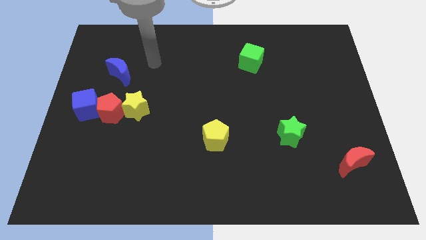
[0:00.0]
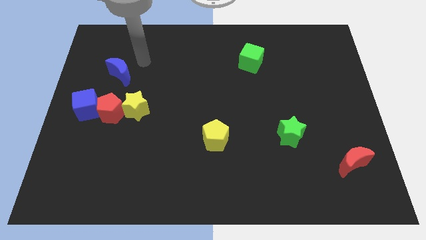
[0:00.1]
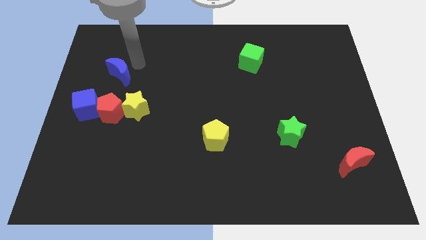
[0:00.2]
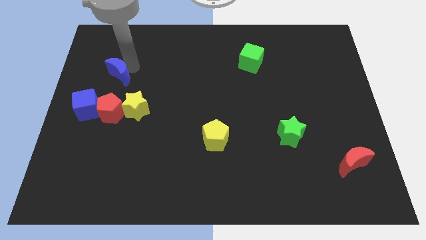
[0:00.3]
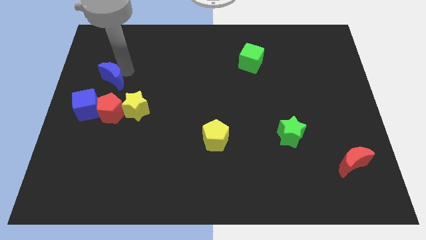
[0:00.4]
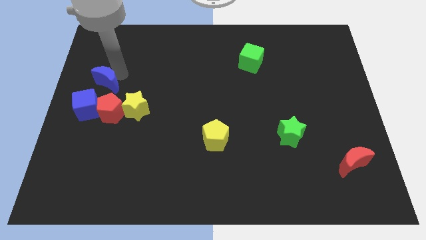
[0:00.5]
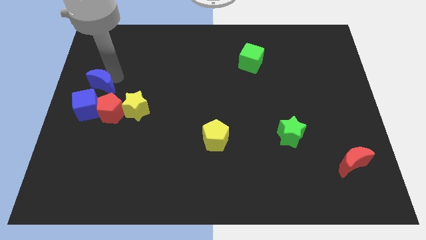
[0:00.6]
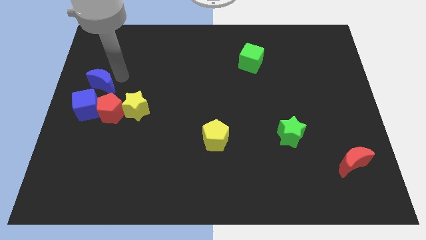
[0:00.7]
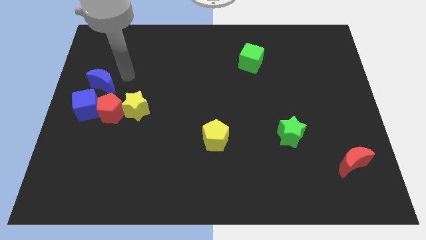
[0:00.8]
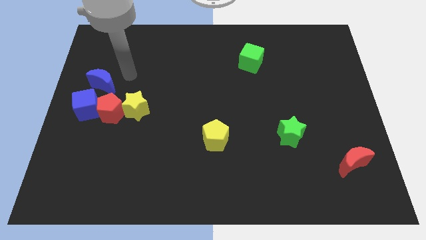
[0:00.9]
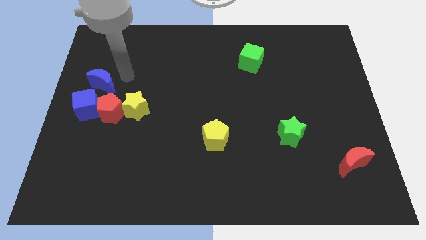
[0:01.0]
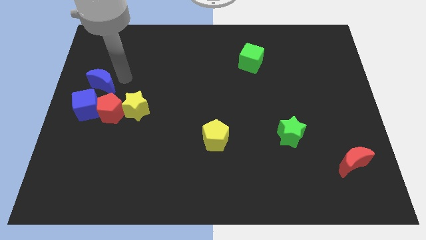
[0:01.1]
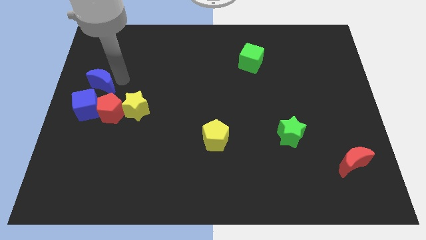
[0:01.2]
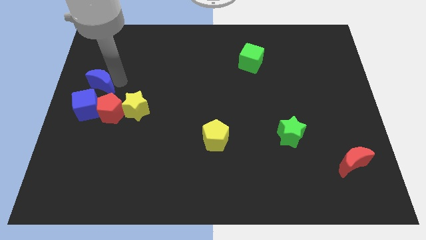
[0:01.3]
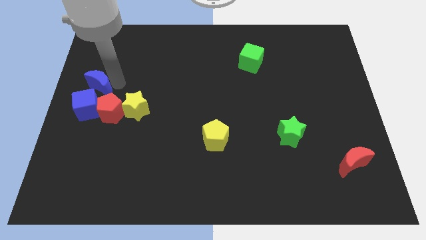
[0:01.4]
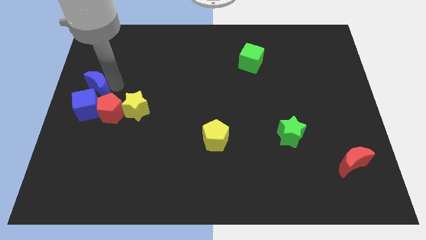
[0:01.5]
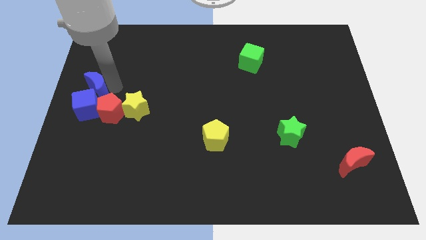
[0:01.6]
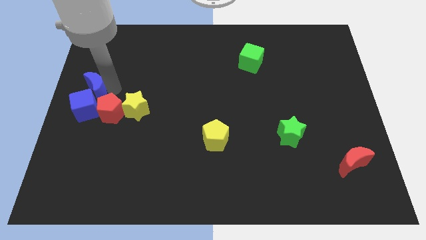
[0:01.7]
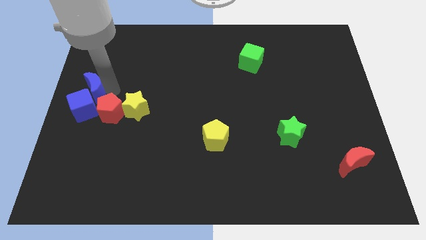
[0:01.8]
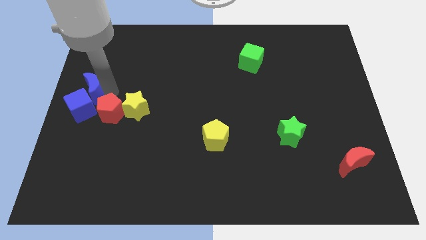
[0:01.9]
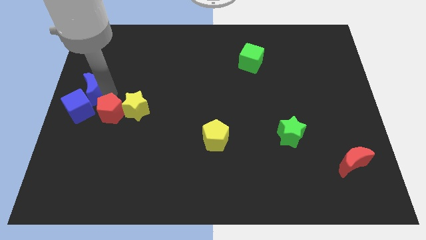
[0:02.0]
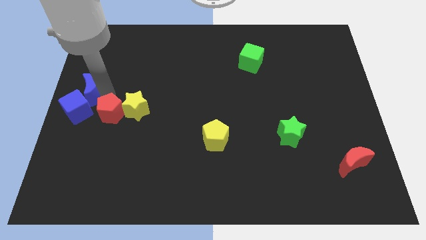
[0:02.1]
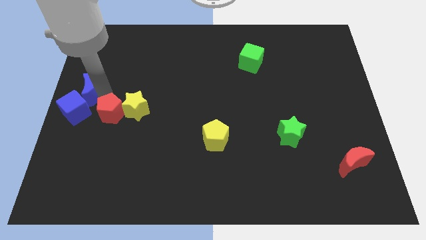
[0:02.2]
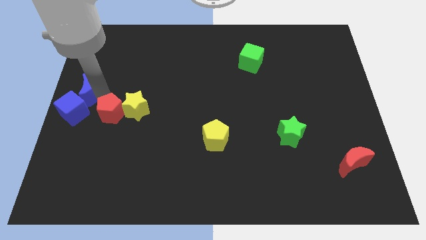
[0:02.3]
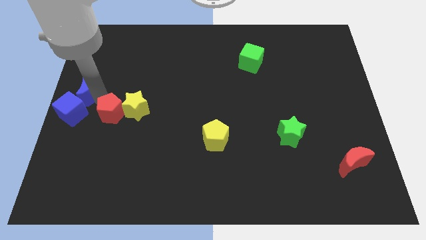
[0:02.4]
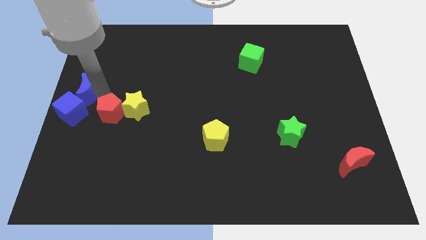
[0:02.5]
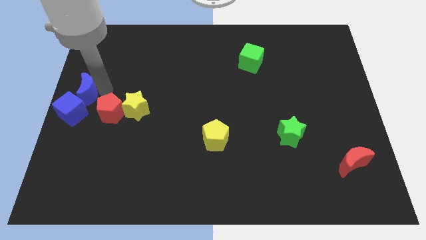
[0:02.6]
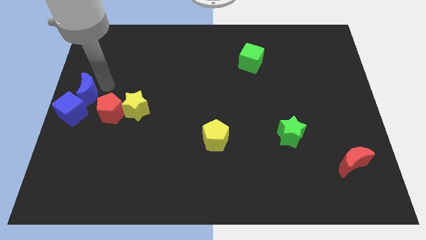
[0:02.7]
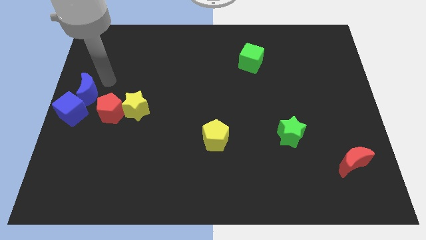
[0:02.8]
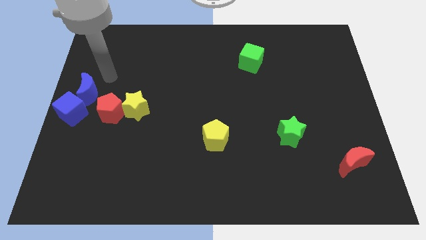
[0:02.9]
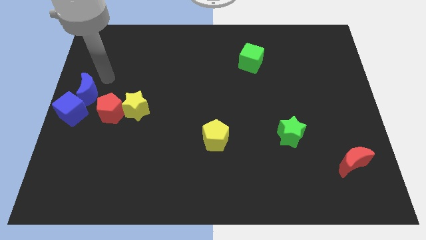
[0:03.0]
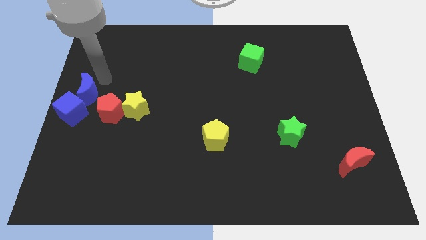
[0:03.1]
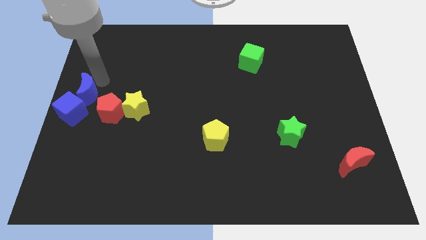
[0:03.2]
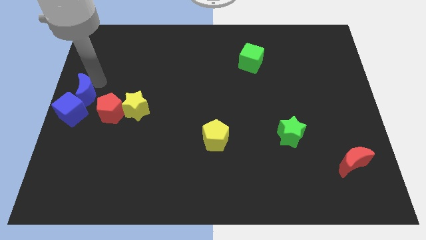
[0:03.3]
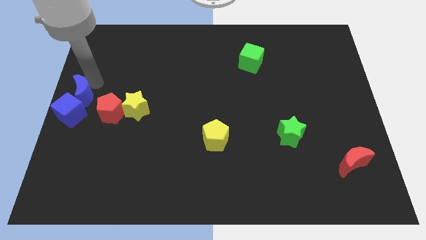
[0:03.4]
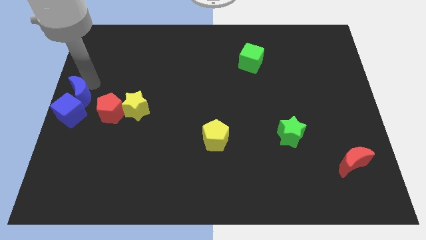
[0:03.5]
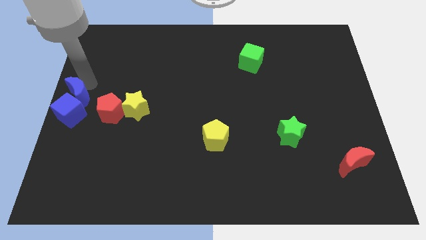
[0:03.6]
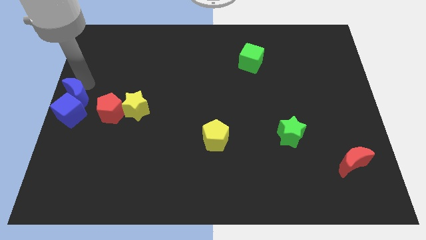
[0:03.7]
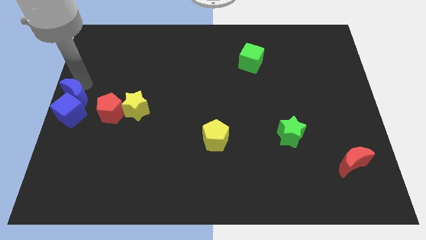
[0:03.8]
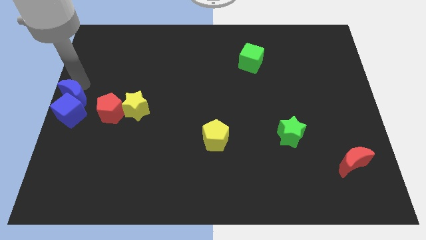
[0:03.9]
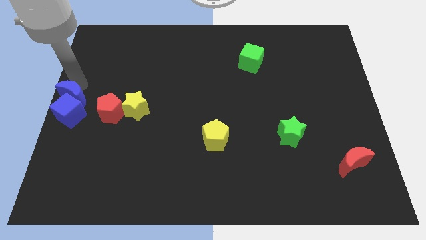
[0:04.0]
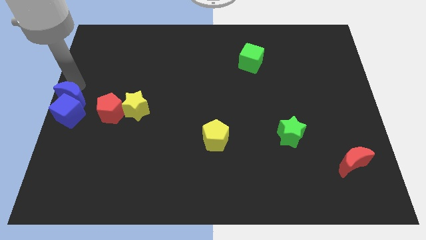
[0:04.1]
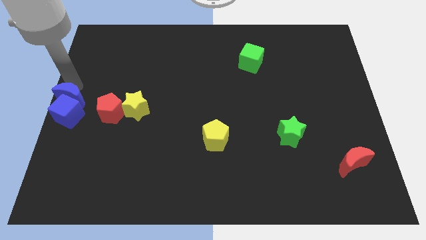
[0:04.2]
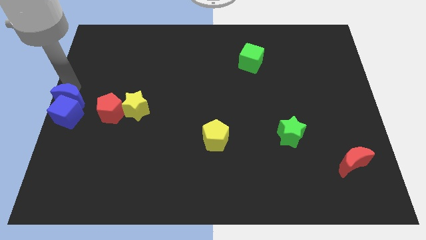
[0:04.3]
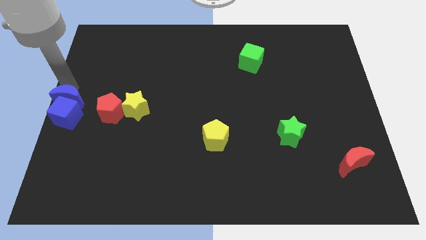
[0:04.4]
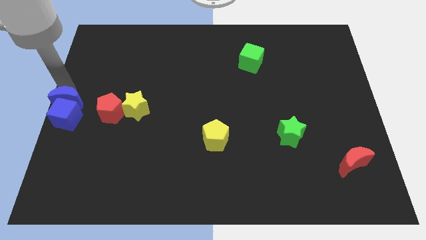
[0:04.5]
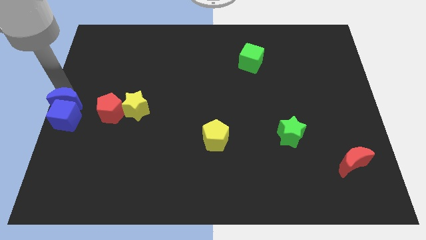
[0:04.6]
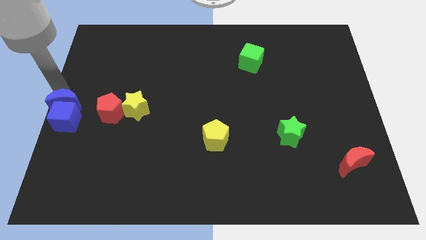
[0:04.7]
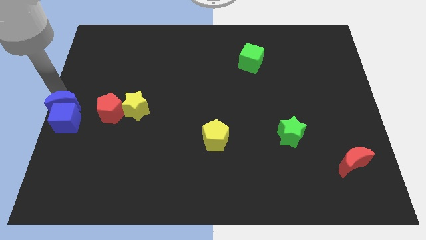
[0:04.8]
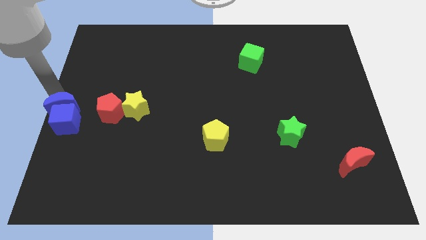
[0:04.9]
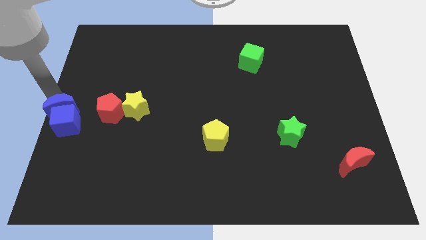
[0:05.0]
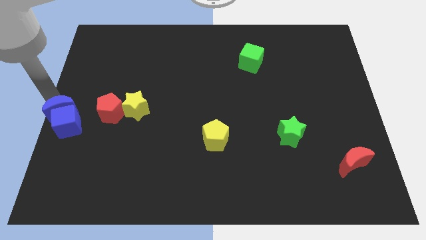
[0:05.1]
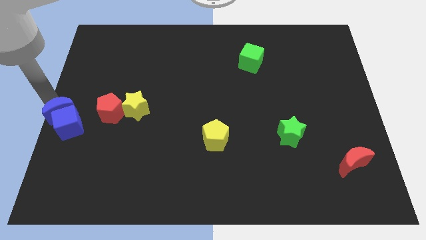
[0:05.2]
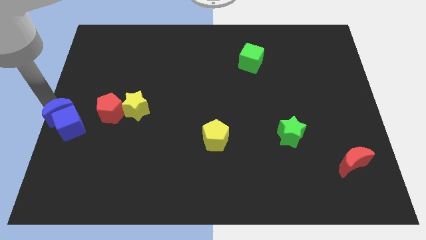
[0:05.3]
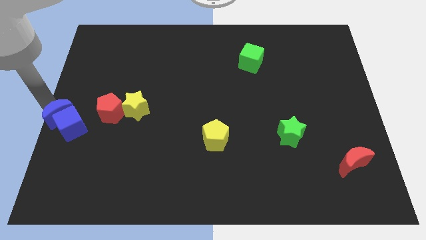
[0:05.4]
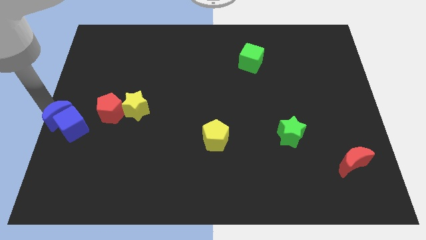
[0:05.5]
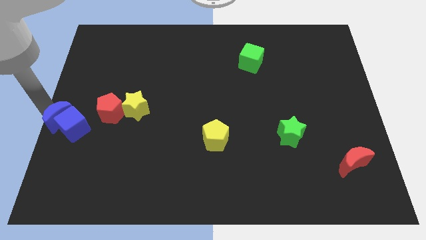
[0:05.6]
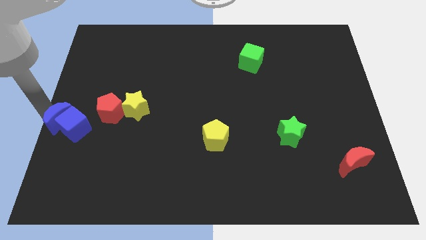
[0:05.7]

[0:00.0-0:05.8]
slide the blue moon downwards a bit

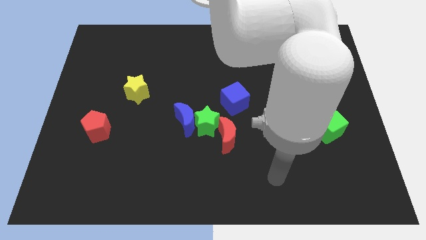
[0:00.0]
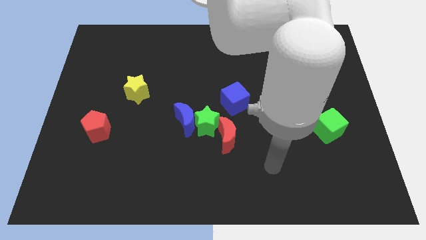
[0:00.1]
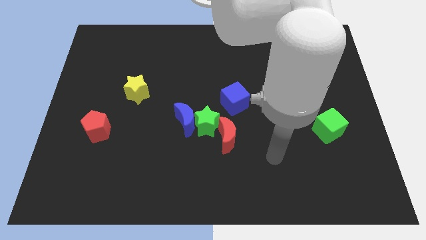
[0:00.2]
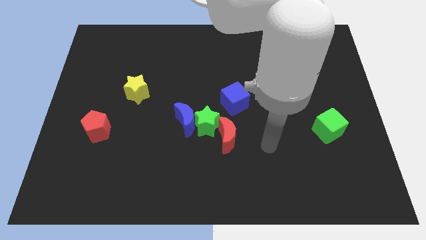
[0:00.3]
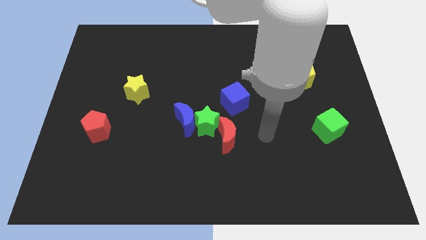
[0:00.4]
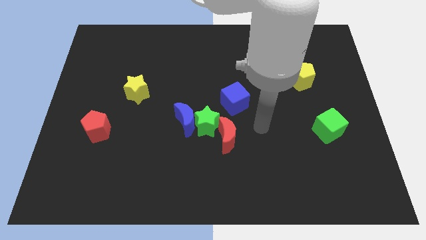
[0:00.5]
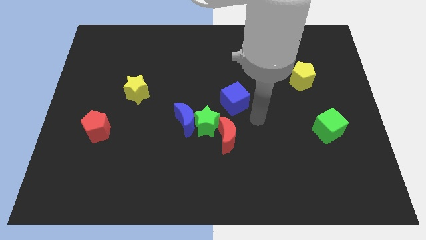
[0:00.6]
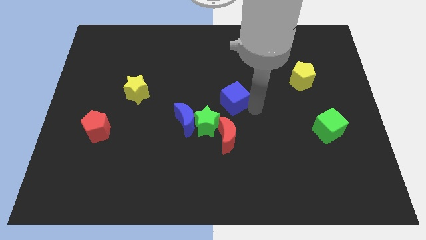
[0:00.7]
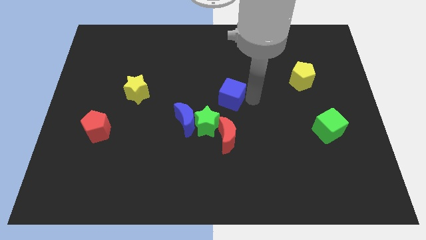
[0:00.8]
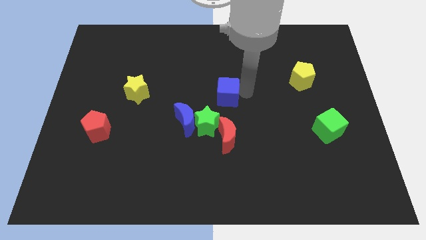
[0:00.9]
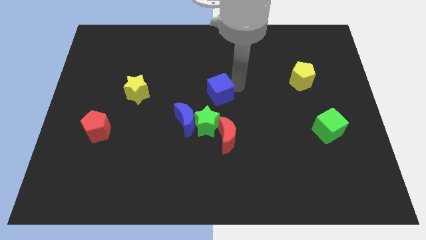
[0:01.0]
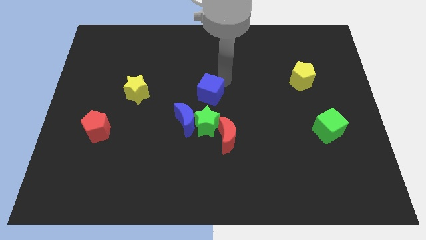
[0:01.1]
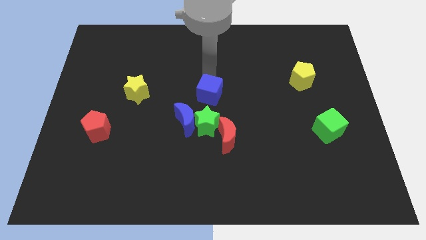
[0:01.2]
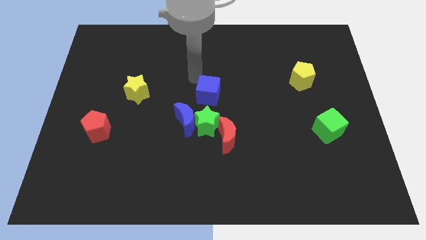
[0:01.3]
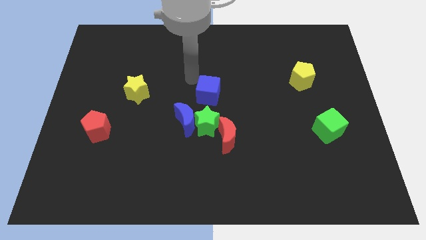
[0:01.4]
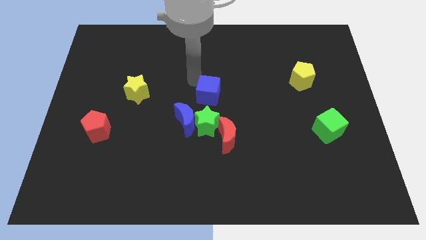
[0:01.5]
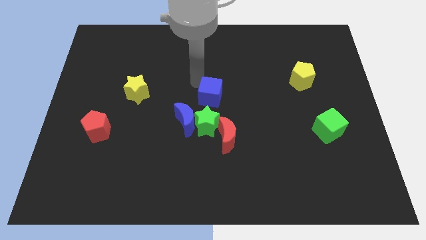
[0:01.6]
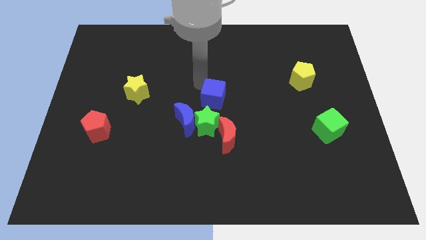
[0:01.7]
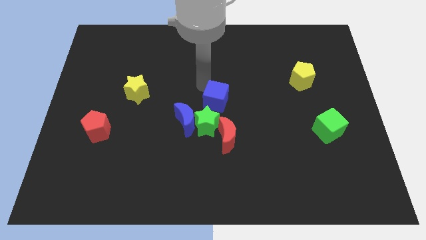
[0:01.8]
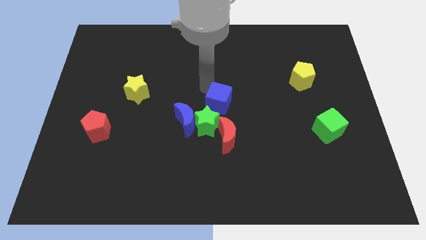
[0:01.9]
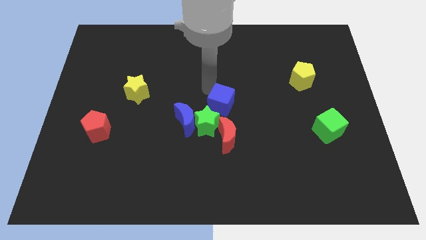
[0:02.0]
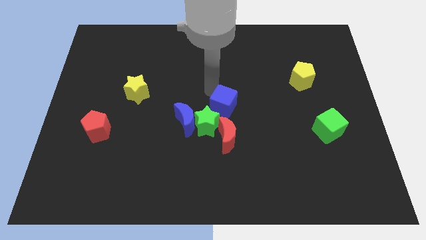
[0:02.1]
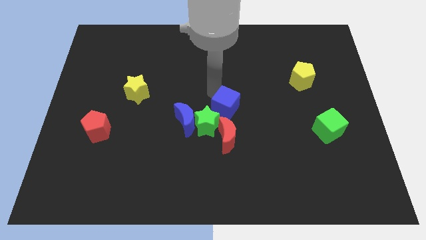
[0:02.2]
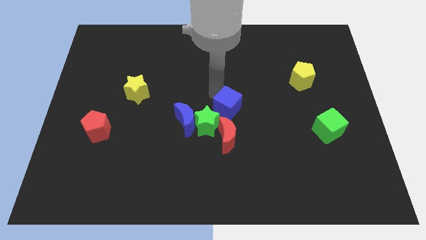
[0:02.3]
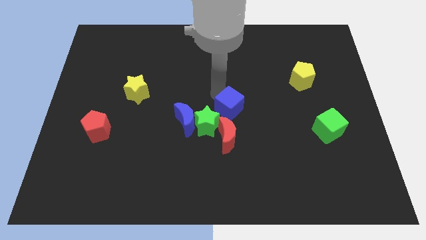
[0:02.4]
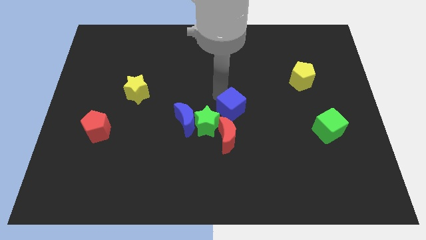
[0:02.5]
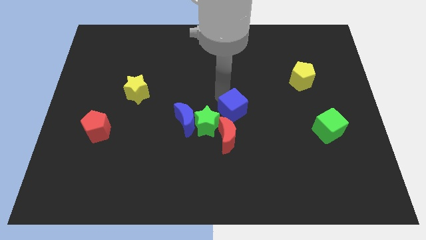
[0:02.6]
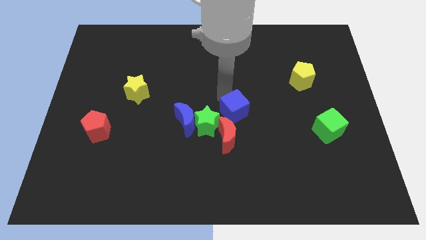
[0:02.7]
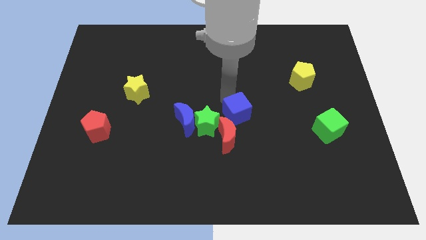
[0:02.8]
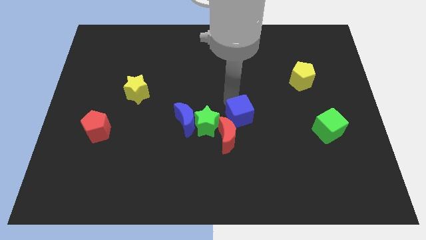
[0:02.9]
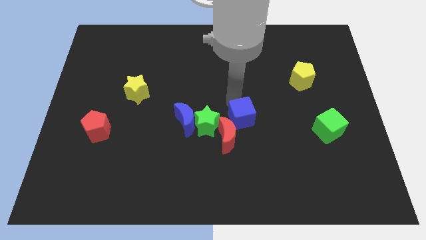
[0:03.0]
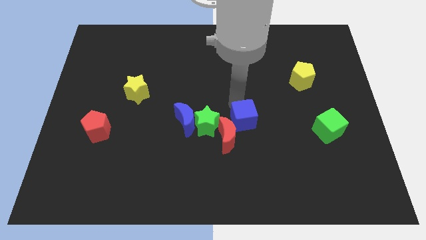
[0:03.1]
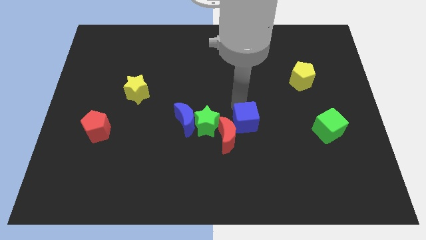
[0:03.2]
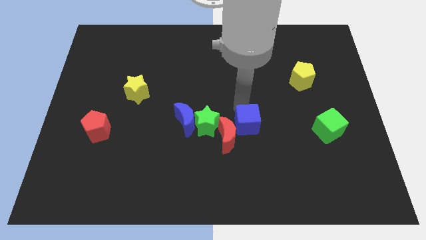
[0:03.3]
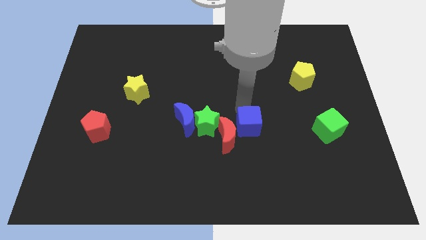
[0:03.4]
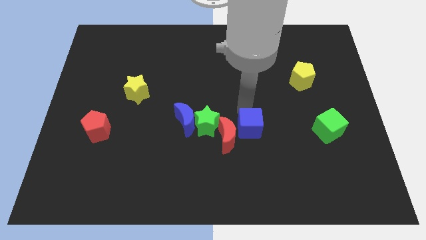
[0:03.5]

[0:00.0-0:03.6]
slide the blue cube downwards a bit
